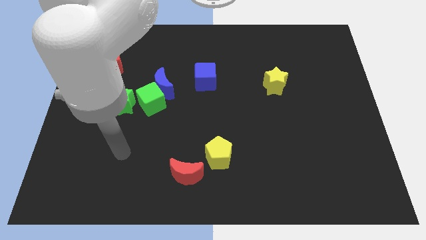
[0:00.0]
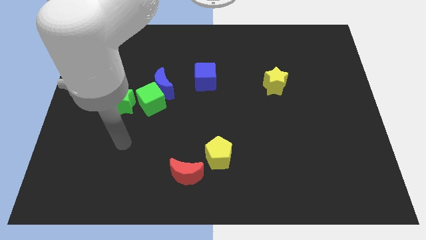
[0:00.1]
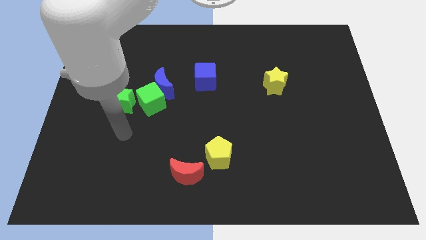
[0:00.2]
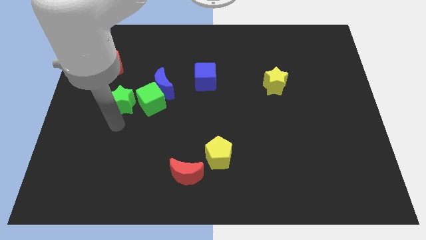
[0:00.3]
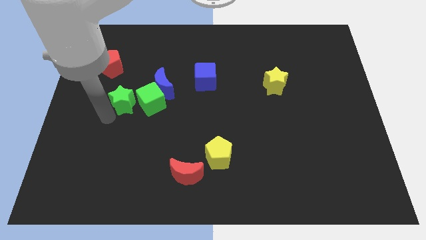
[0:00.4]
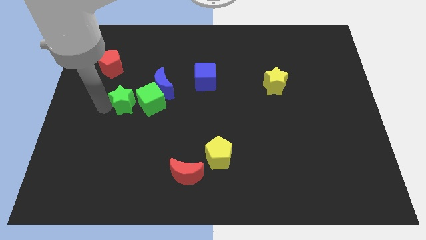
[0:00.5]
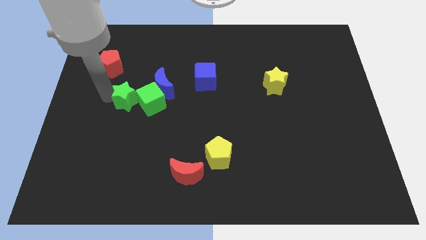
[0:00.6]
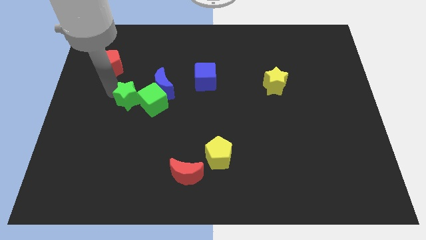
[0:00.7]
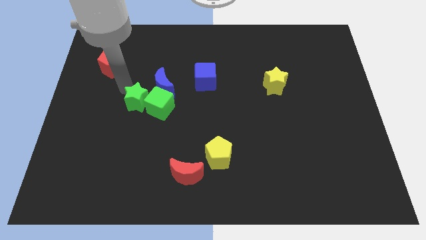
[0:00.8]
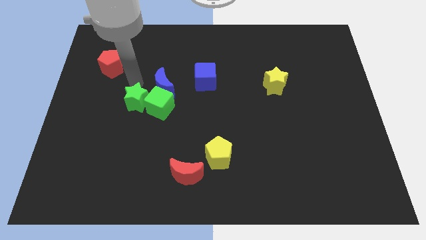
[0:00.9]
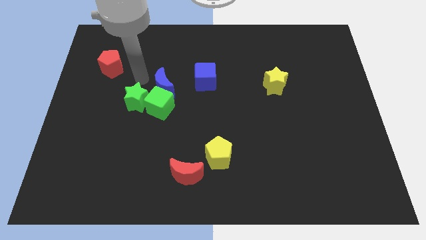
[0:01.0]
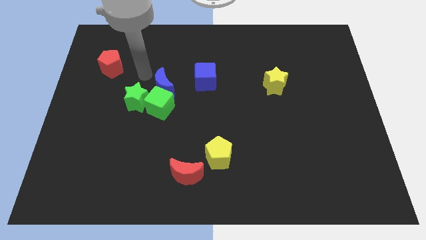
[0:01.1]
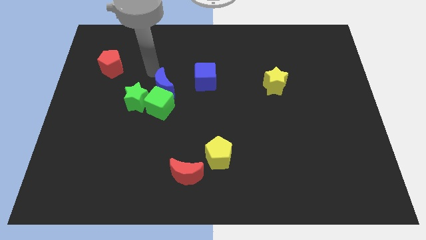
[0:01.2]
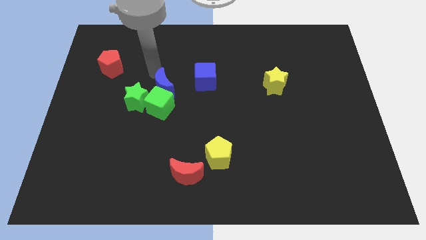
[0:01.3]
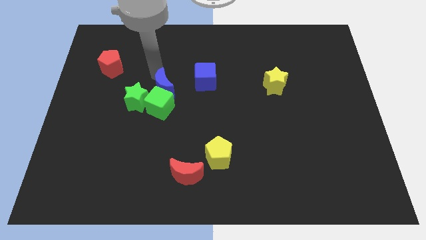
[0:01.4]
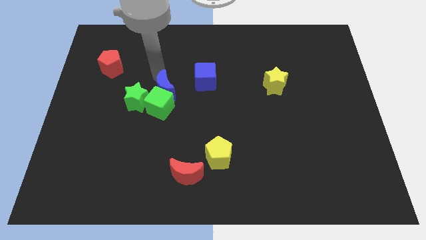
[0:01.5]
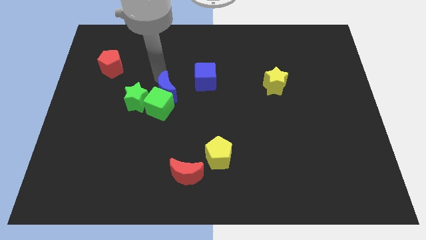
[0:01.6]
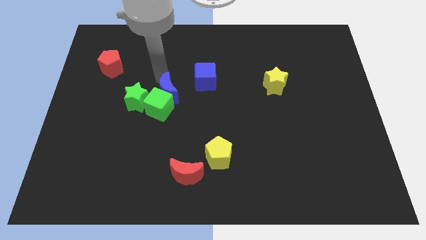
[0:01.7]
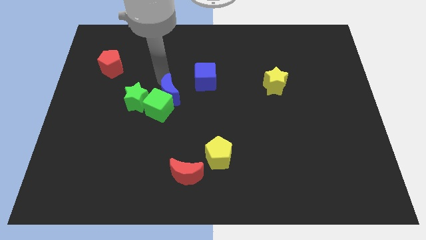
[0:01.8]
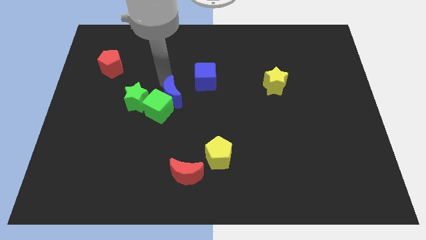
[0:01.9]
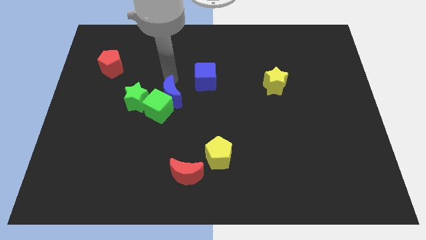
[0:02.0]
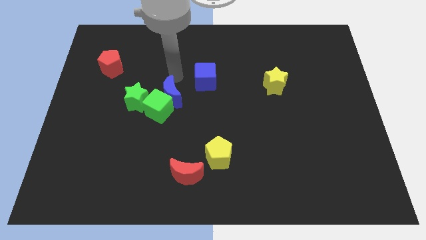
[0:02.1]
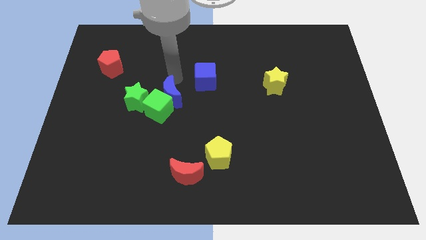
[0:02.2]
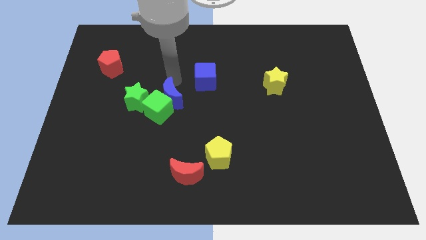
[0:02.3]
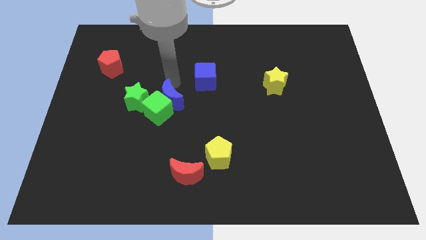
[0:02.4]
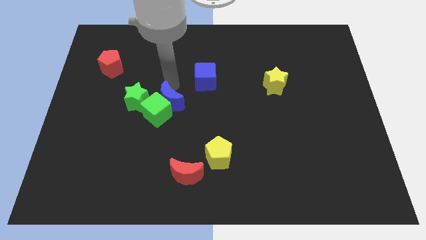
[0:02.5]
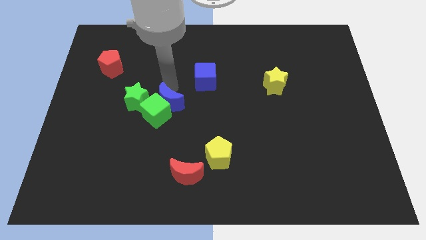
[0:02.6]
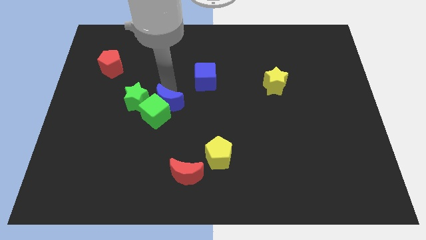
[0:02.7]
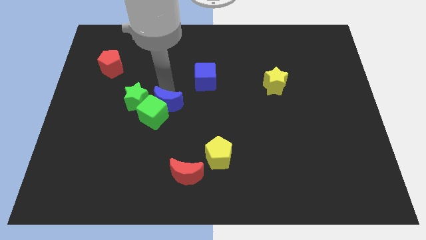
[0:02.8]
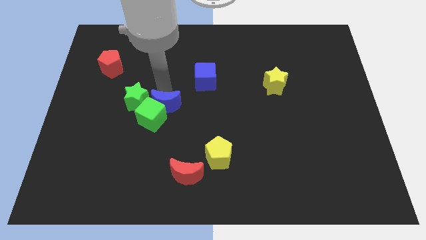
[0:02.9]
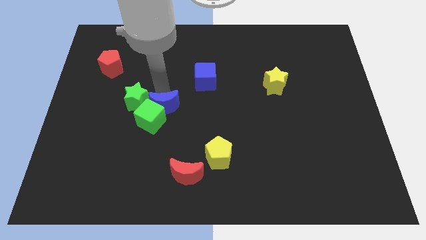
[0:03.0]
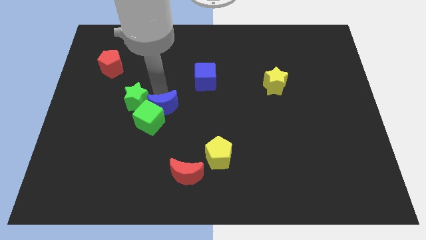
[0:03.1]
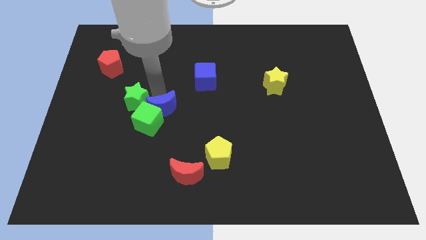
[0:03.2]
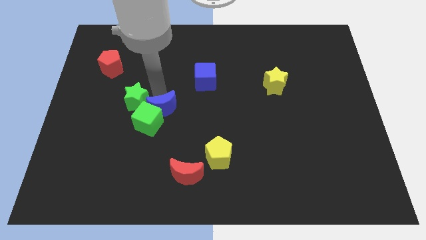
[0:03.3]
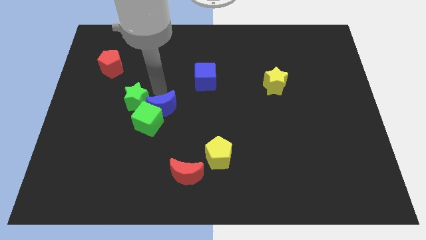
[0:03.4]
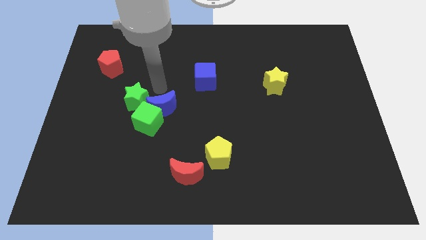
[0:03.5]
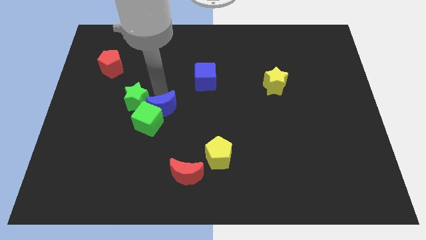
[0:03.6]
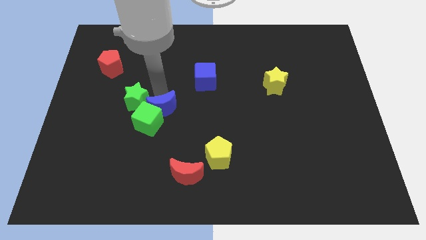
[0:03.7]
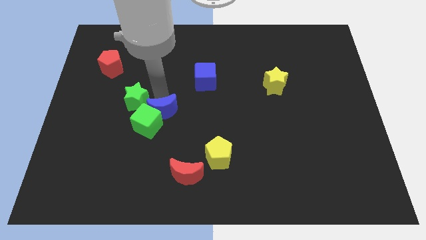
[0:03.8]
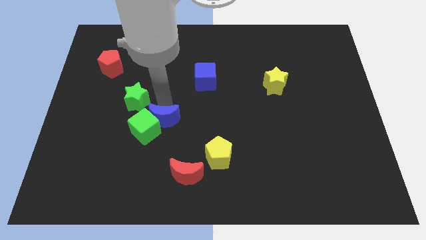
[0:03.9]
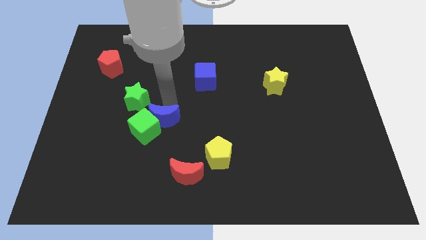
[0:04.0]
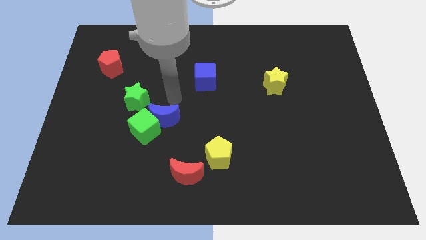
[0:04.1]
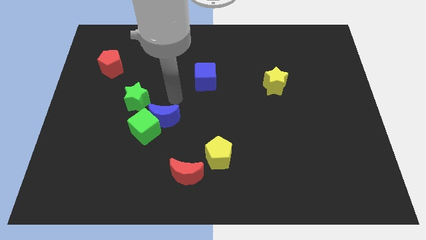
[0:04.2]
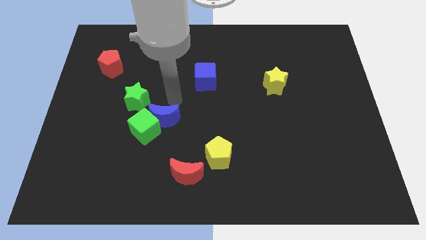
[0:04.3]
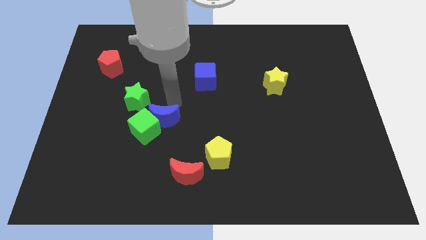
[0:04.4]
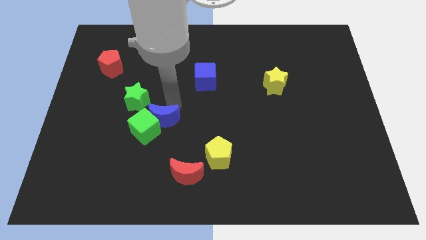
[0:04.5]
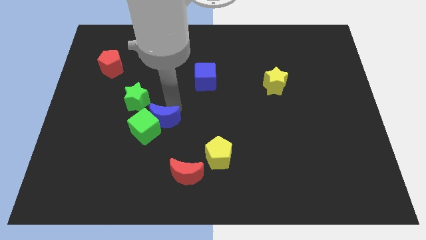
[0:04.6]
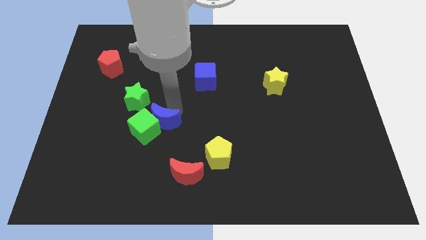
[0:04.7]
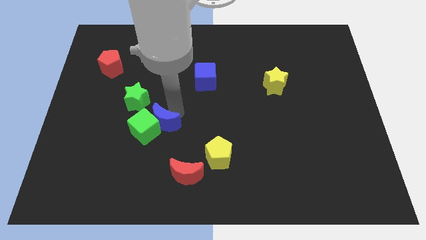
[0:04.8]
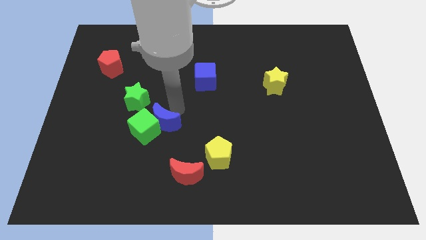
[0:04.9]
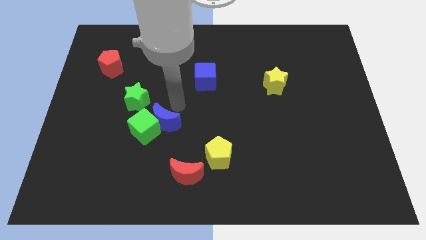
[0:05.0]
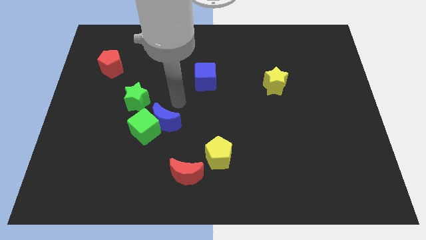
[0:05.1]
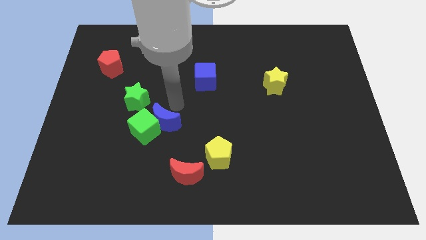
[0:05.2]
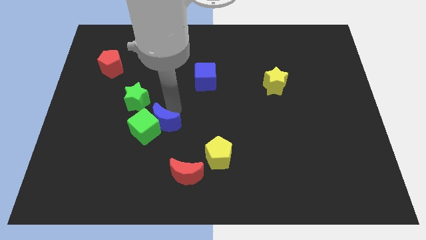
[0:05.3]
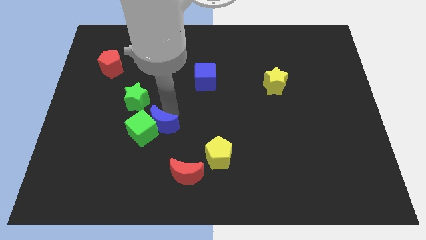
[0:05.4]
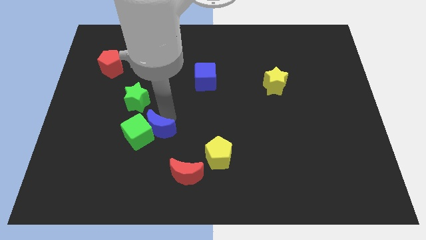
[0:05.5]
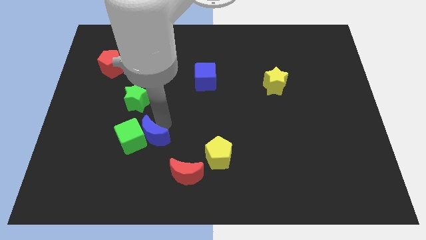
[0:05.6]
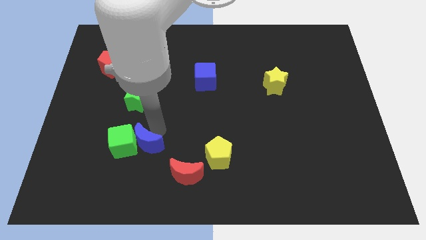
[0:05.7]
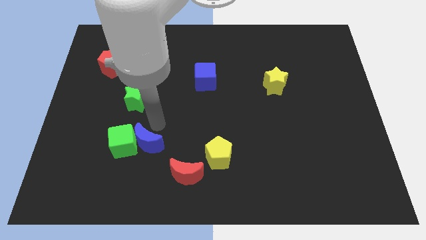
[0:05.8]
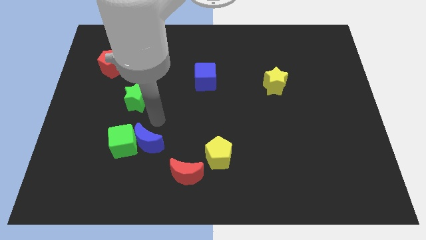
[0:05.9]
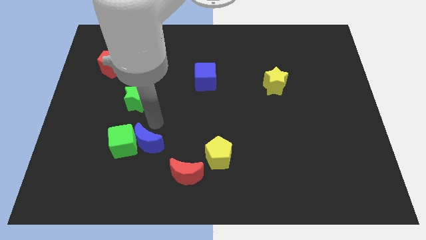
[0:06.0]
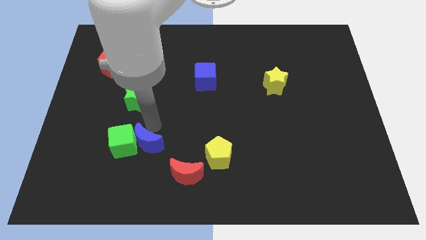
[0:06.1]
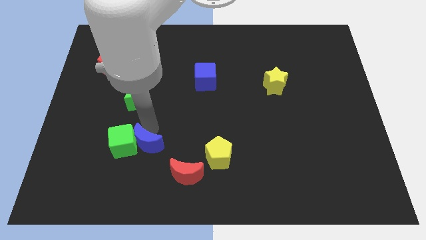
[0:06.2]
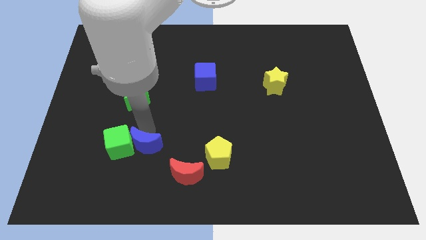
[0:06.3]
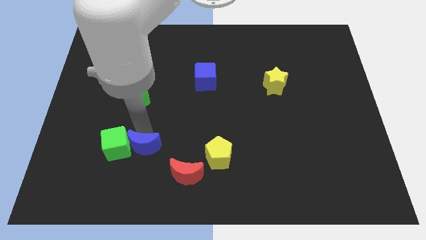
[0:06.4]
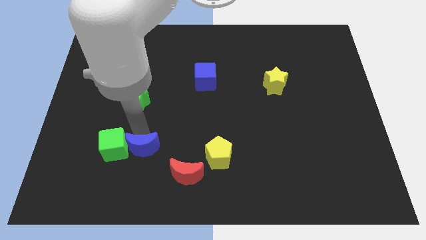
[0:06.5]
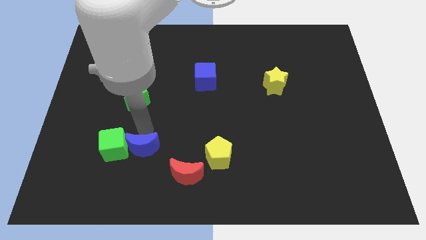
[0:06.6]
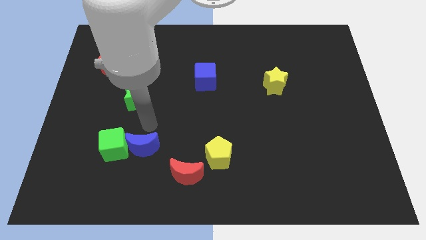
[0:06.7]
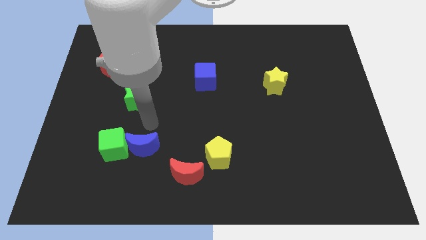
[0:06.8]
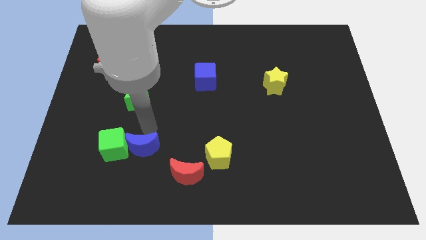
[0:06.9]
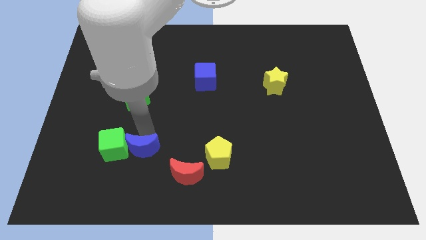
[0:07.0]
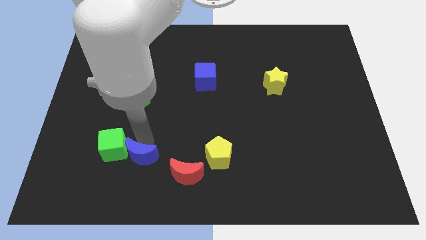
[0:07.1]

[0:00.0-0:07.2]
put the blue moon left of the red moon
